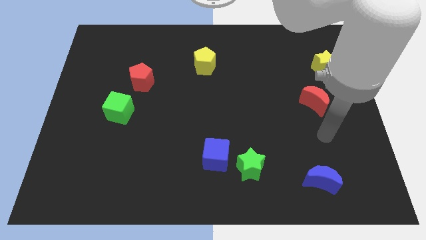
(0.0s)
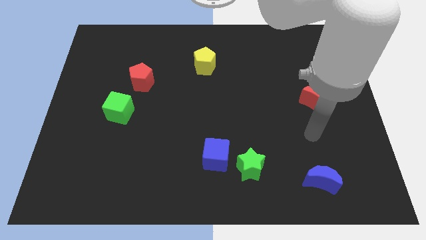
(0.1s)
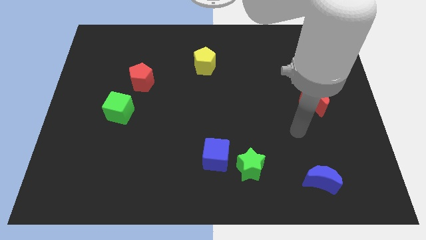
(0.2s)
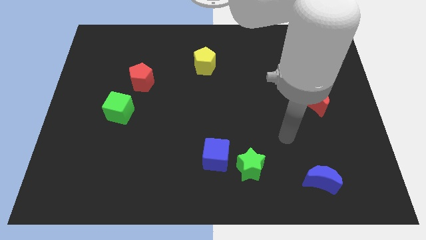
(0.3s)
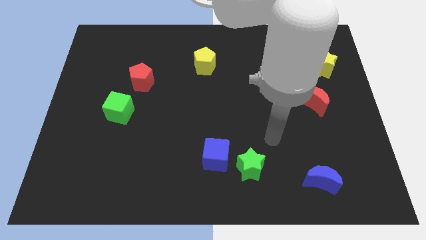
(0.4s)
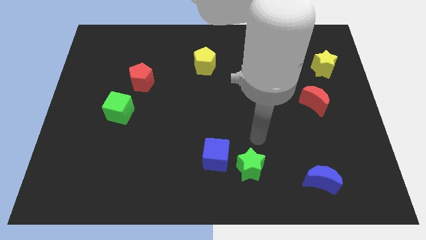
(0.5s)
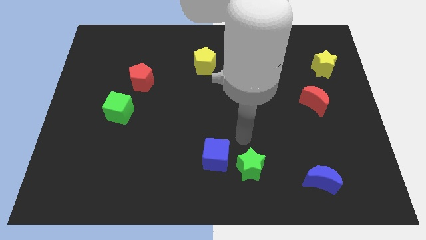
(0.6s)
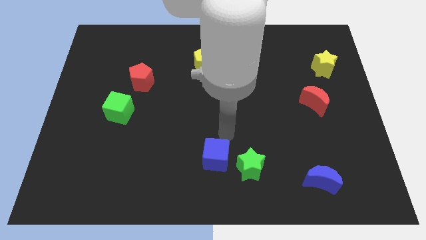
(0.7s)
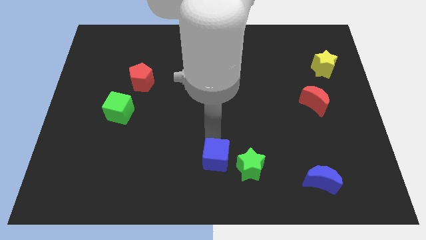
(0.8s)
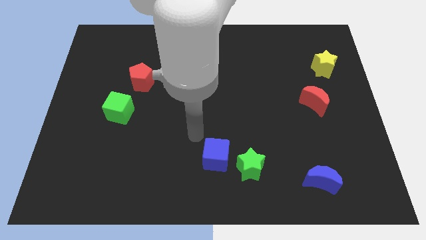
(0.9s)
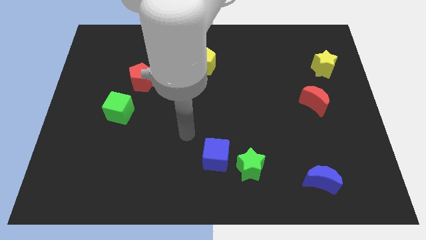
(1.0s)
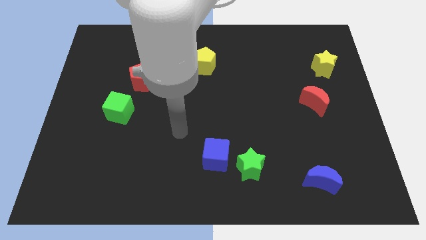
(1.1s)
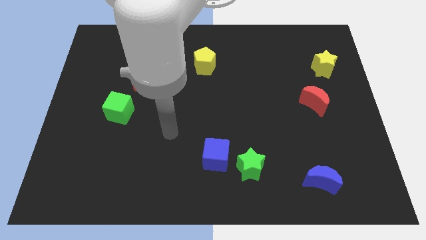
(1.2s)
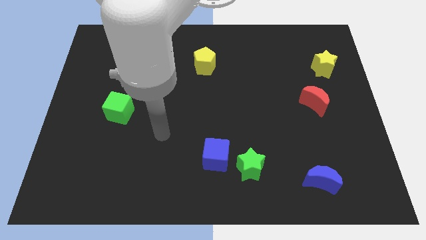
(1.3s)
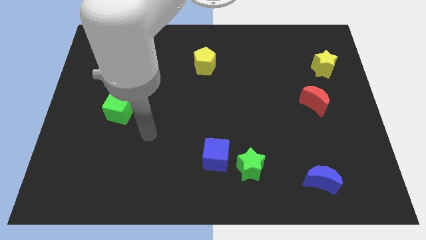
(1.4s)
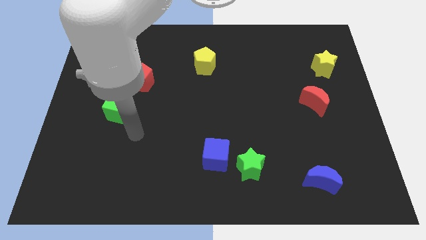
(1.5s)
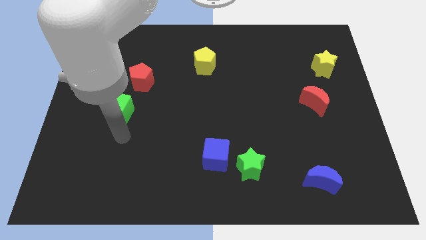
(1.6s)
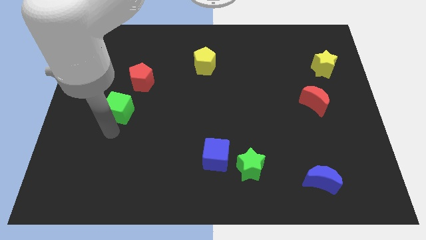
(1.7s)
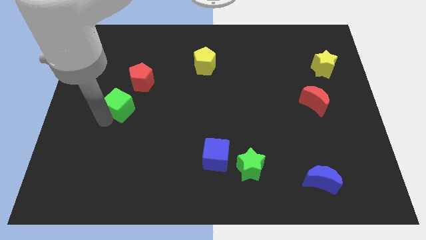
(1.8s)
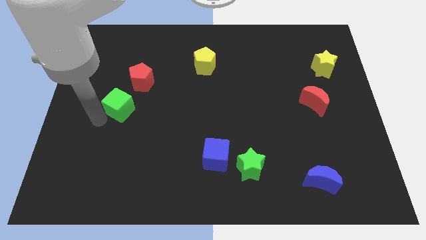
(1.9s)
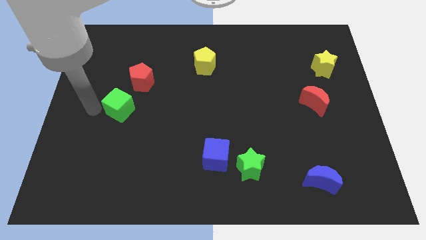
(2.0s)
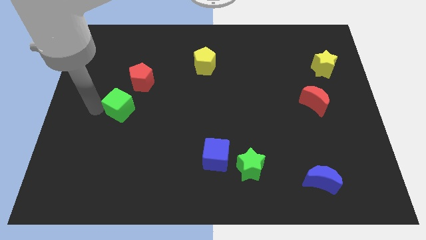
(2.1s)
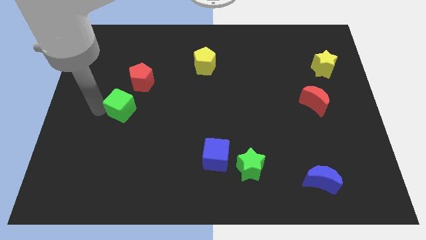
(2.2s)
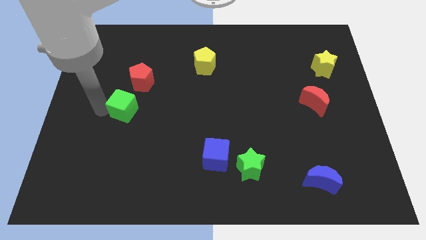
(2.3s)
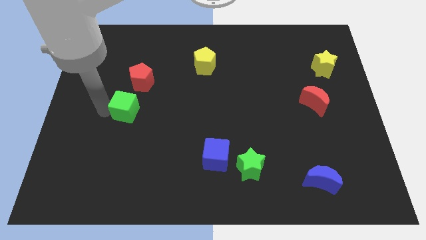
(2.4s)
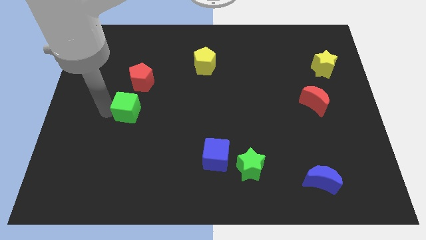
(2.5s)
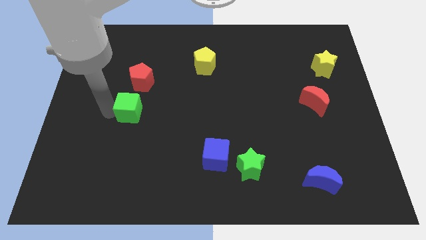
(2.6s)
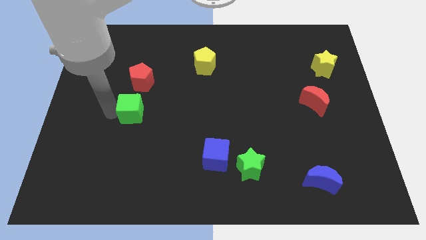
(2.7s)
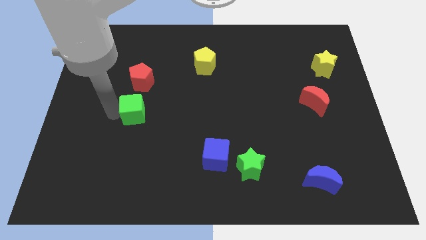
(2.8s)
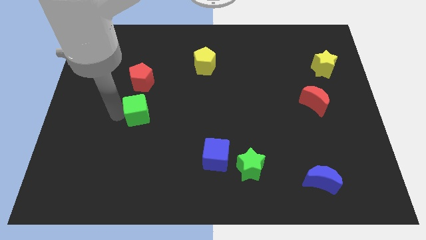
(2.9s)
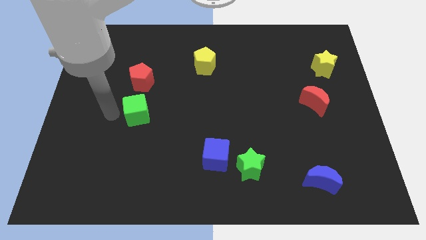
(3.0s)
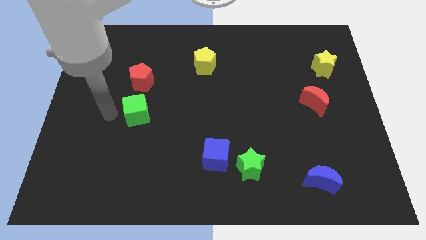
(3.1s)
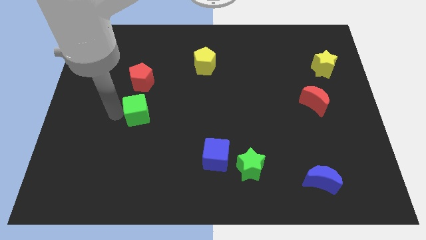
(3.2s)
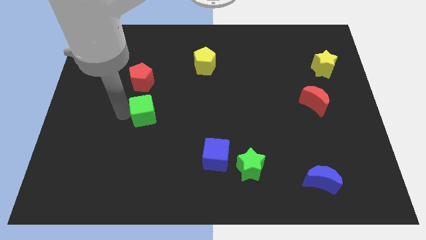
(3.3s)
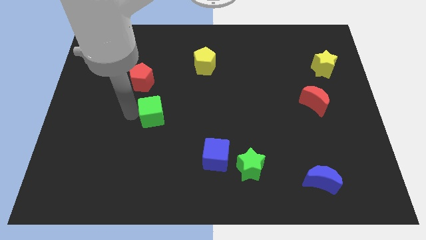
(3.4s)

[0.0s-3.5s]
slightly push the green cube right

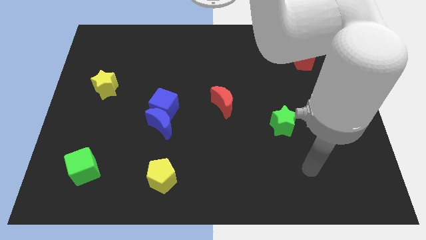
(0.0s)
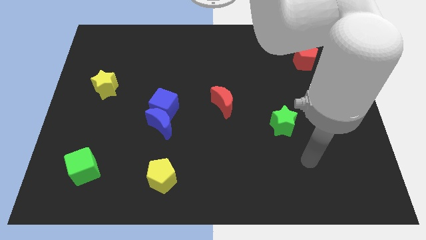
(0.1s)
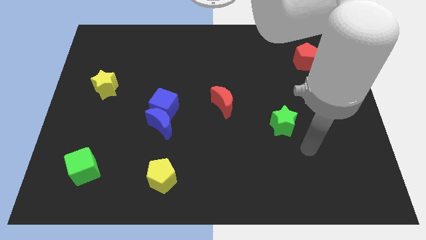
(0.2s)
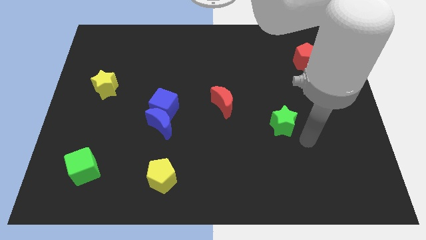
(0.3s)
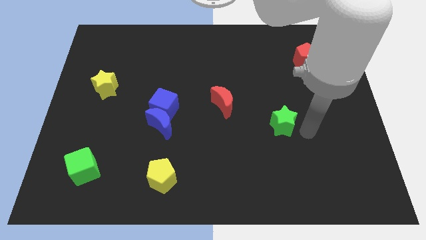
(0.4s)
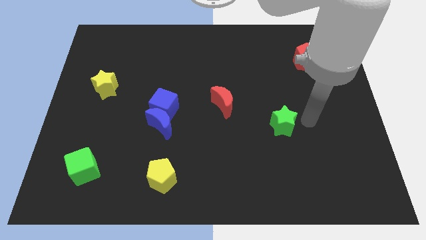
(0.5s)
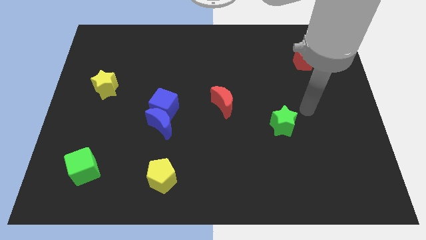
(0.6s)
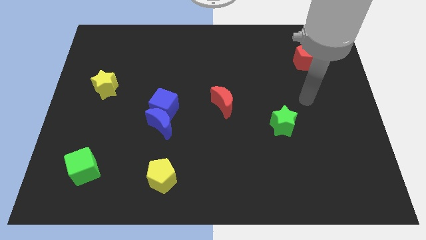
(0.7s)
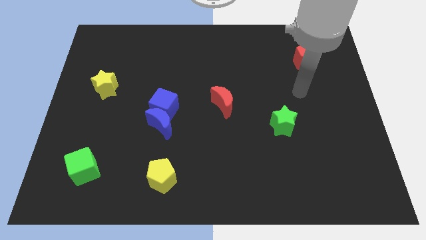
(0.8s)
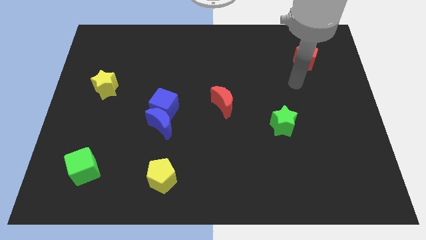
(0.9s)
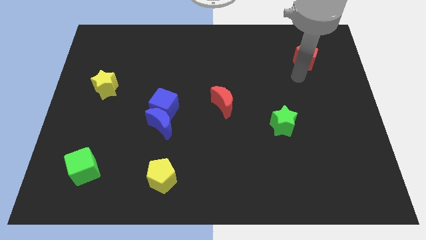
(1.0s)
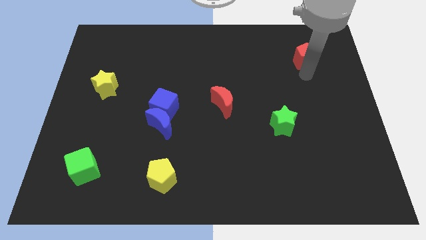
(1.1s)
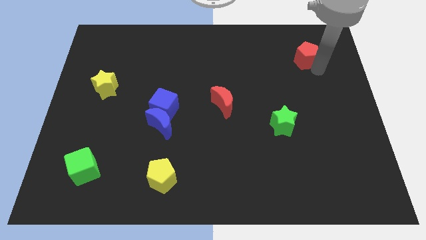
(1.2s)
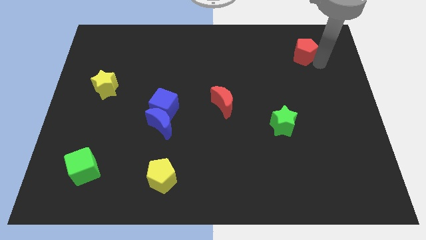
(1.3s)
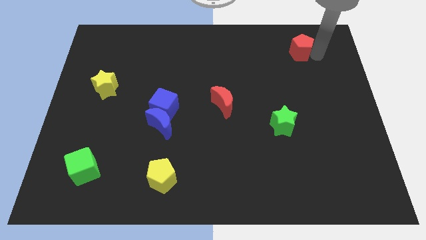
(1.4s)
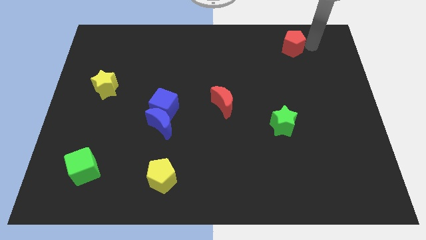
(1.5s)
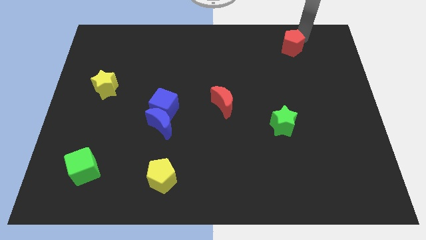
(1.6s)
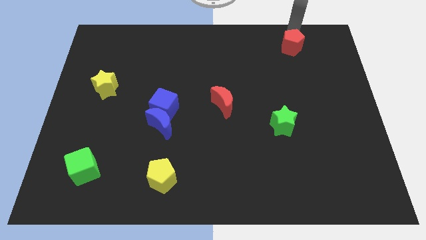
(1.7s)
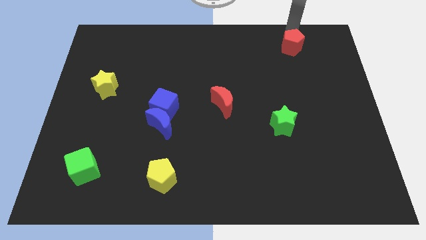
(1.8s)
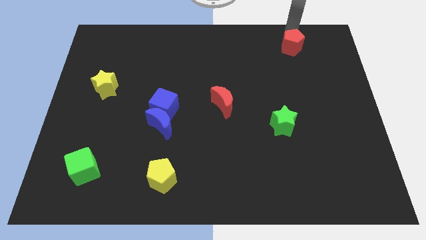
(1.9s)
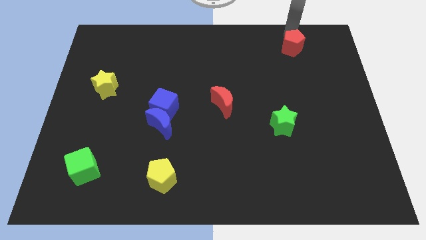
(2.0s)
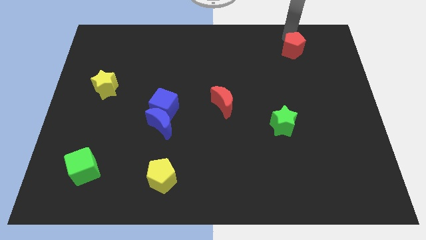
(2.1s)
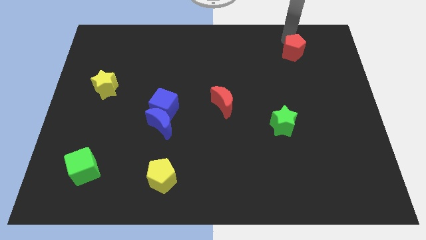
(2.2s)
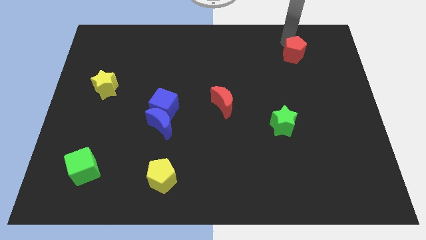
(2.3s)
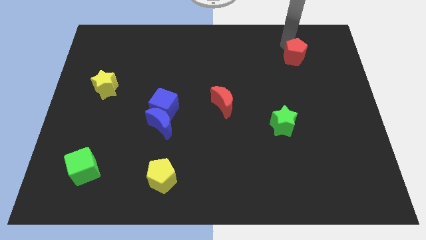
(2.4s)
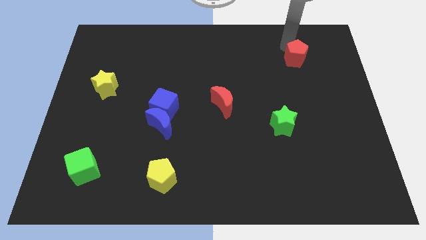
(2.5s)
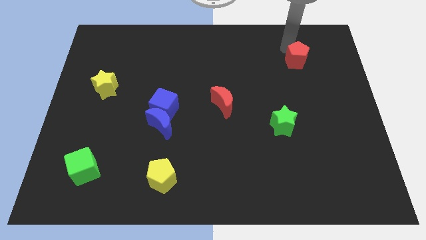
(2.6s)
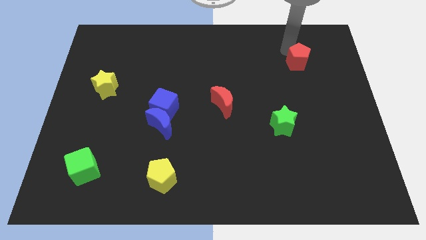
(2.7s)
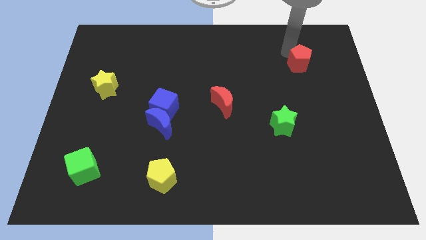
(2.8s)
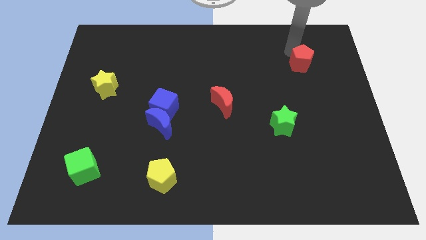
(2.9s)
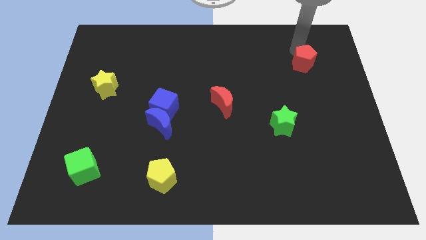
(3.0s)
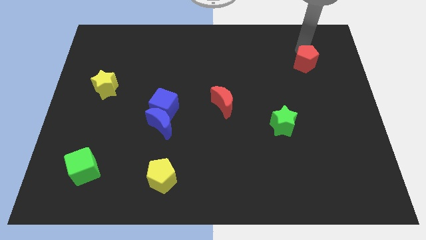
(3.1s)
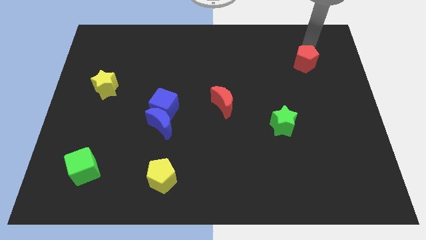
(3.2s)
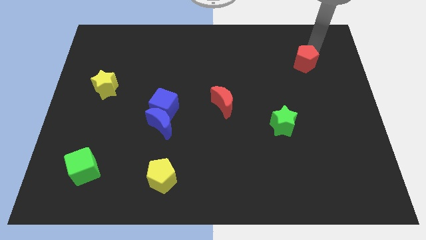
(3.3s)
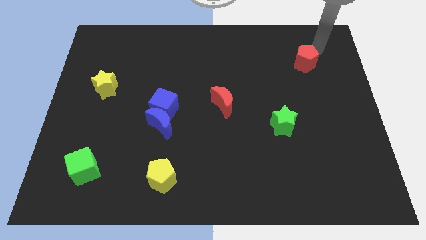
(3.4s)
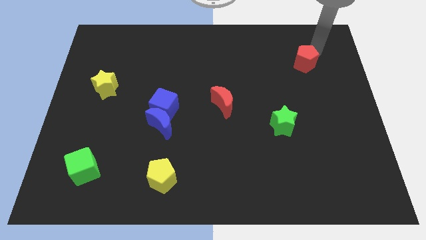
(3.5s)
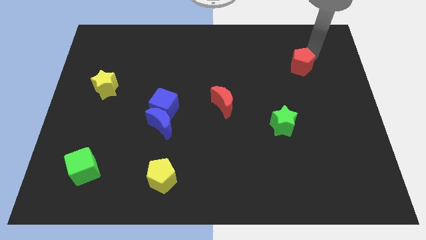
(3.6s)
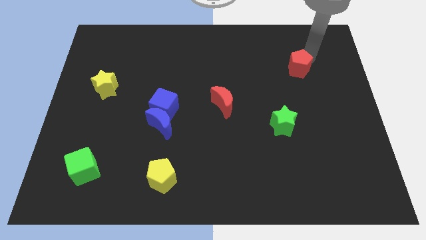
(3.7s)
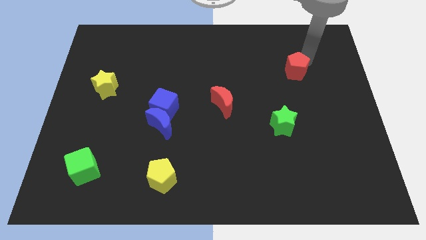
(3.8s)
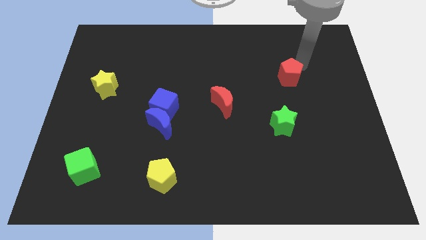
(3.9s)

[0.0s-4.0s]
slide the red pentagon downwards and to the left diagonally a bit

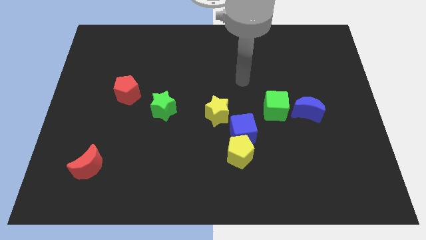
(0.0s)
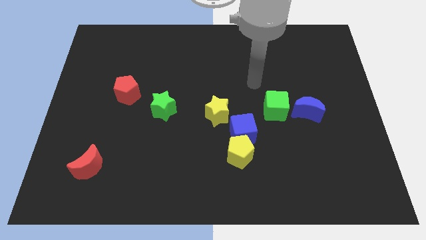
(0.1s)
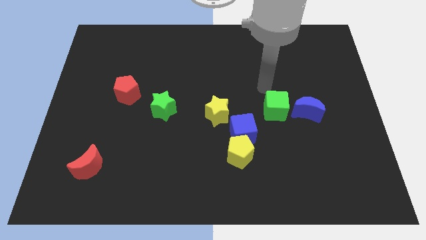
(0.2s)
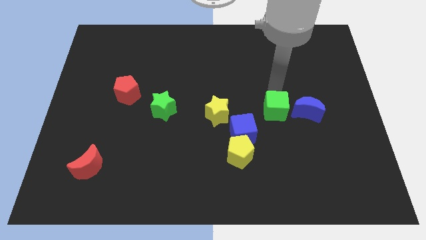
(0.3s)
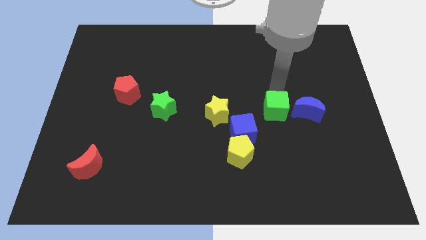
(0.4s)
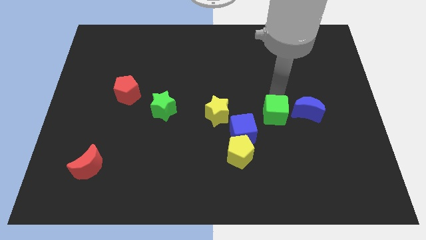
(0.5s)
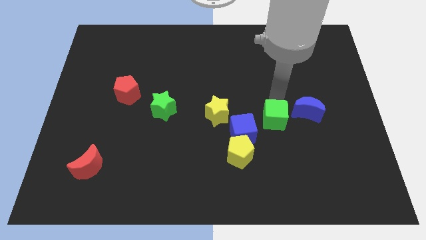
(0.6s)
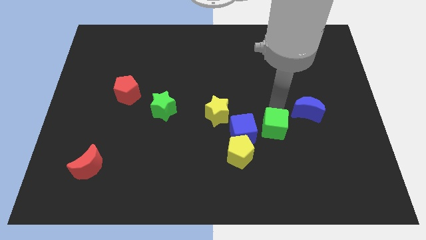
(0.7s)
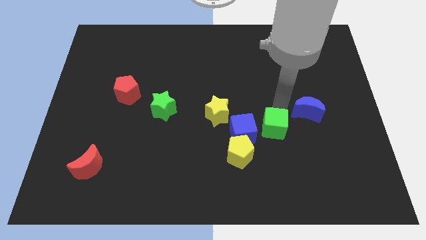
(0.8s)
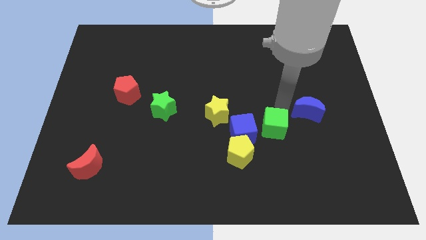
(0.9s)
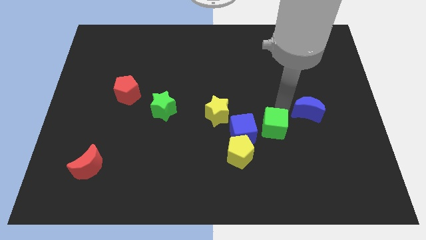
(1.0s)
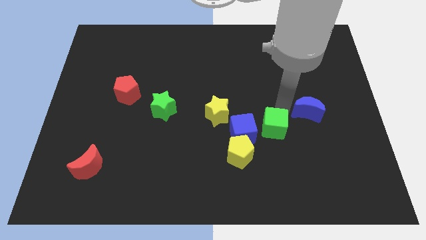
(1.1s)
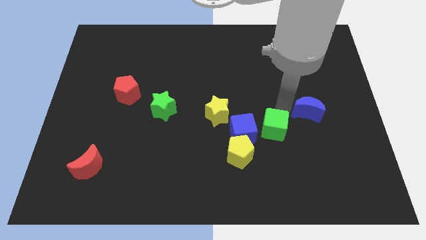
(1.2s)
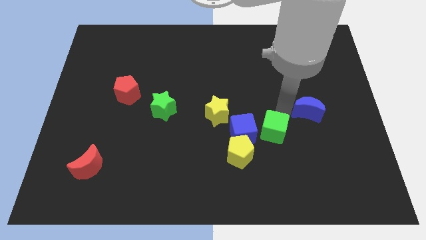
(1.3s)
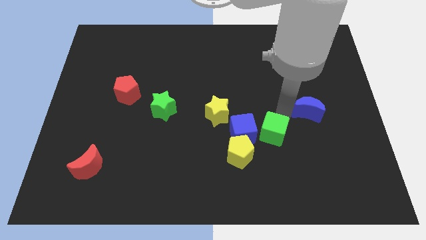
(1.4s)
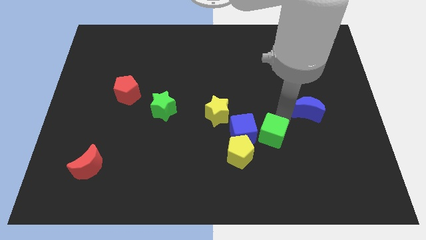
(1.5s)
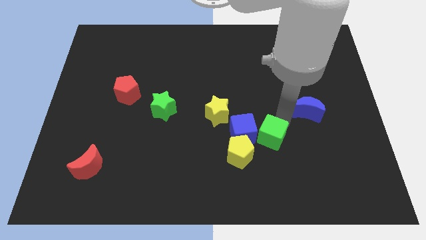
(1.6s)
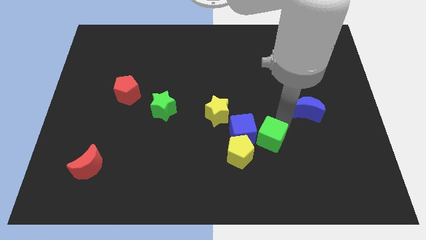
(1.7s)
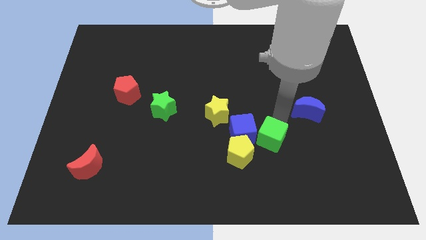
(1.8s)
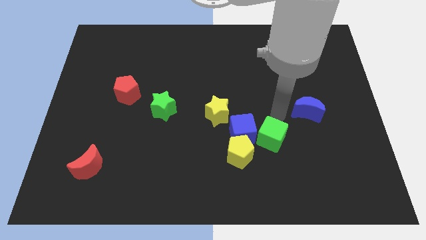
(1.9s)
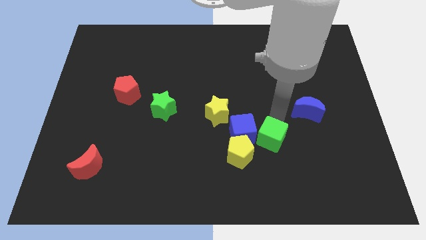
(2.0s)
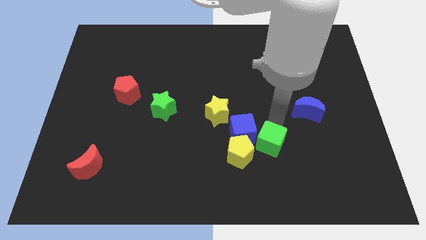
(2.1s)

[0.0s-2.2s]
move the green cube a bit downwards and to the left
